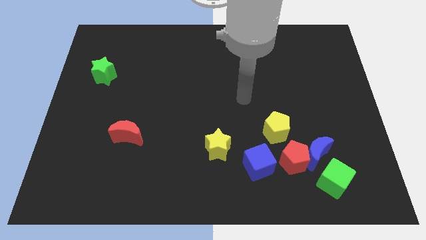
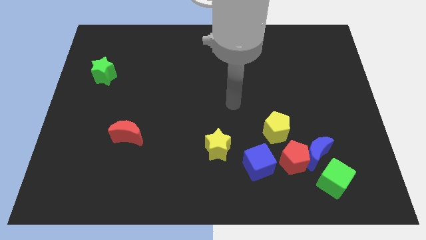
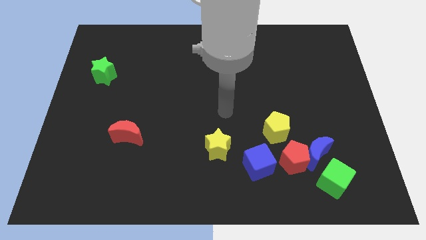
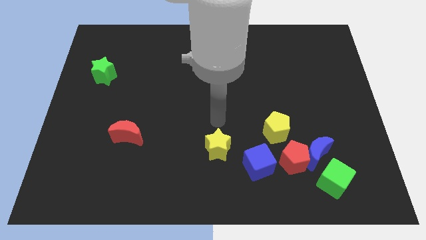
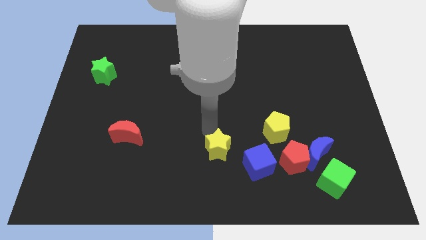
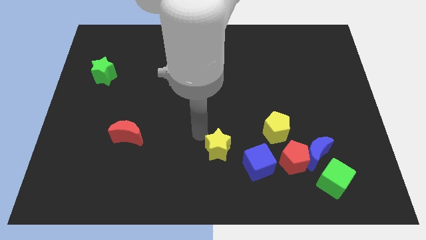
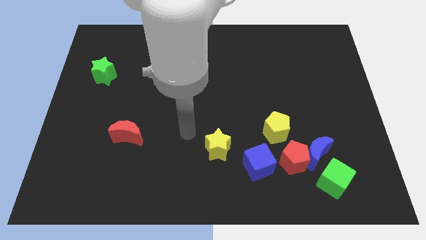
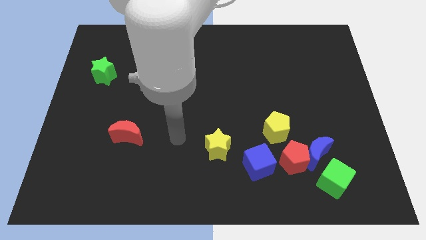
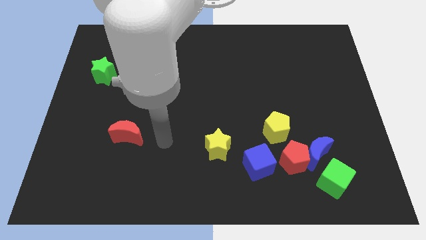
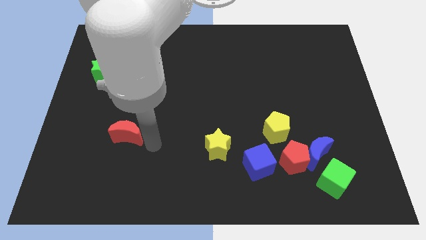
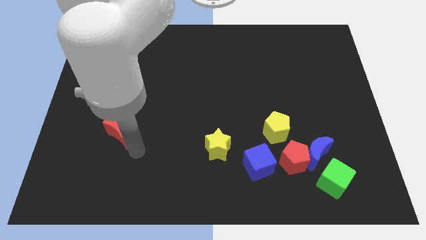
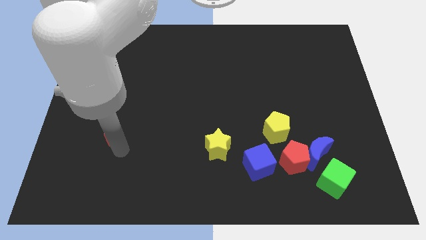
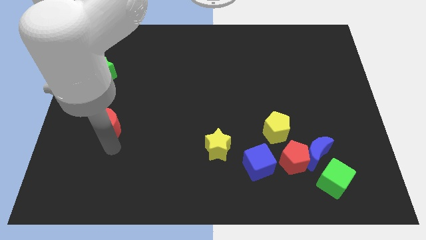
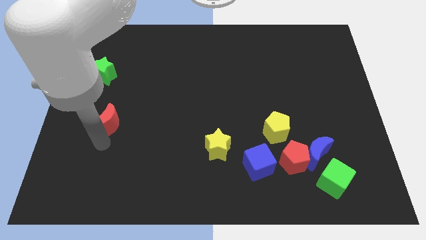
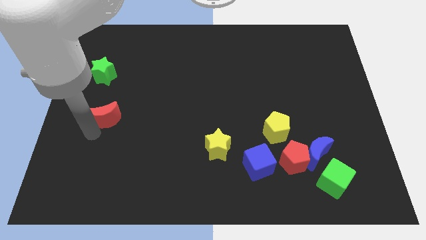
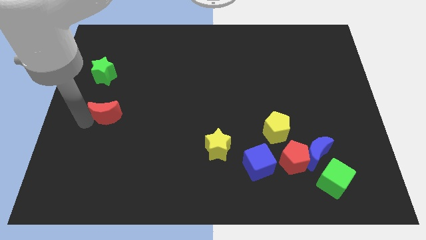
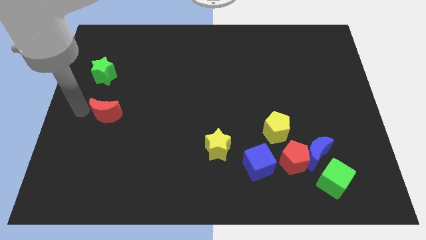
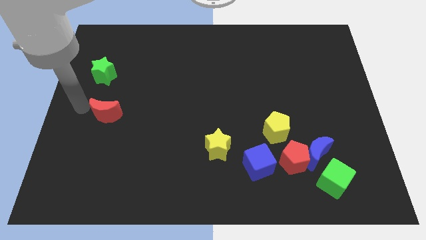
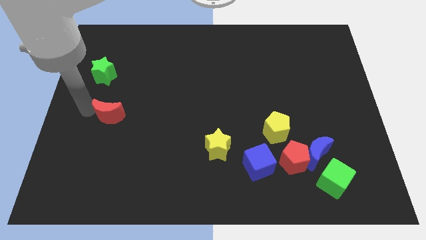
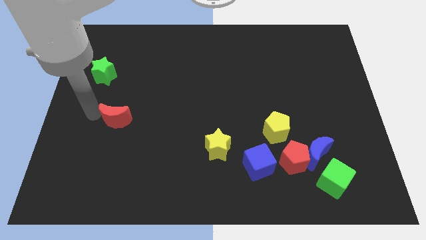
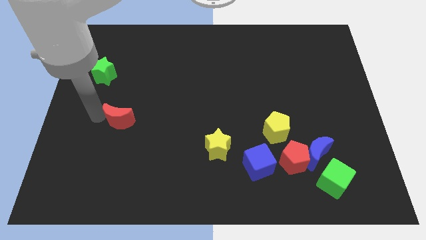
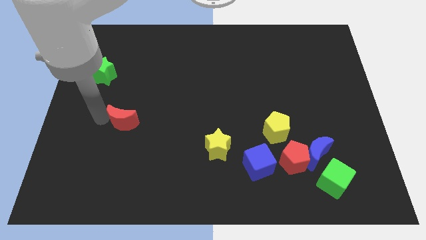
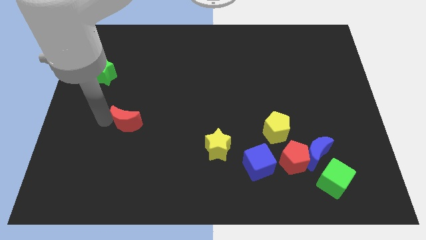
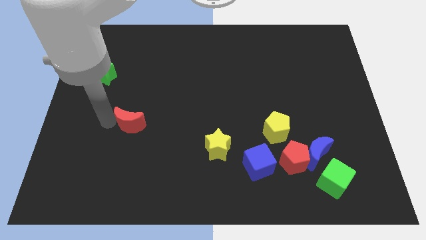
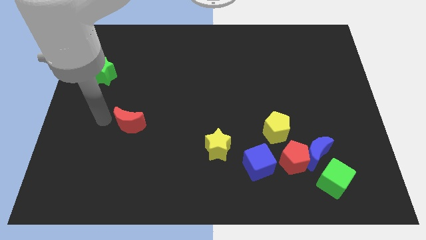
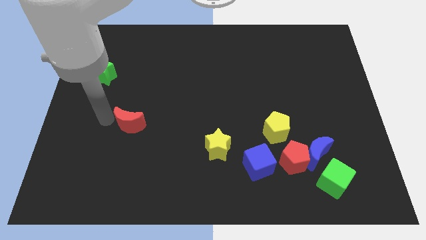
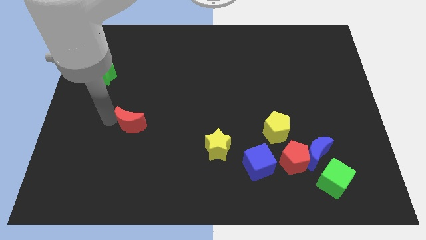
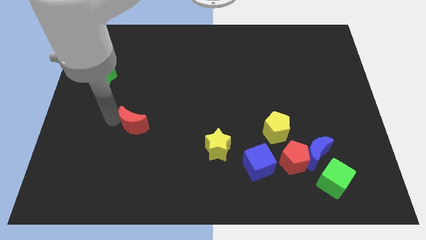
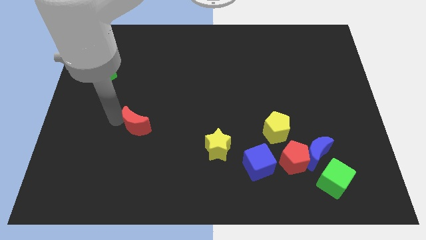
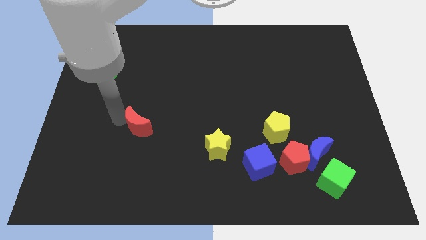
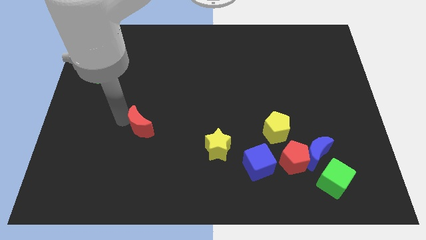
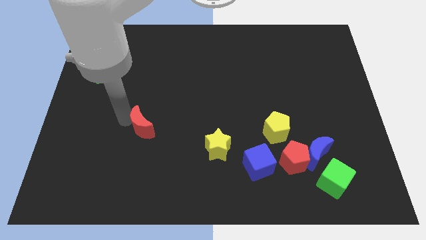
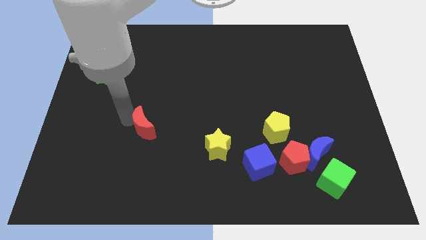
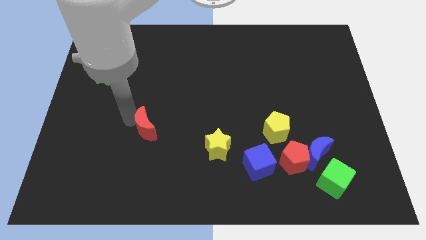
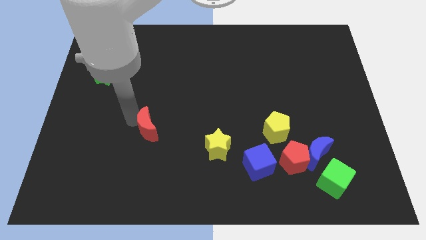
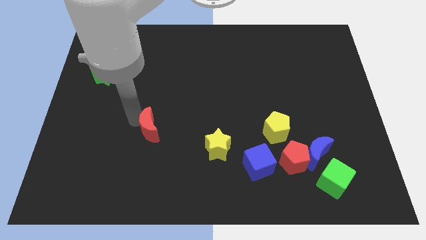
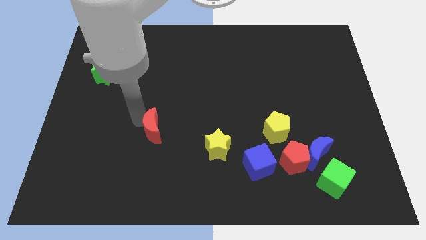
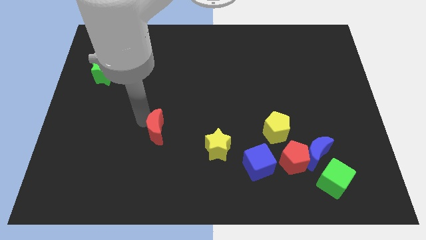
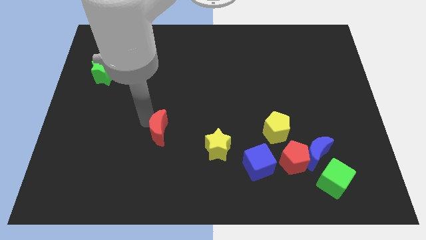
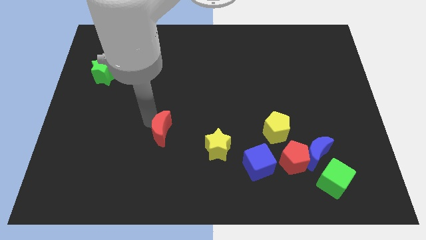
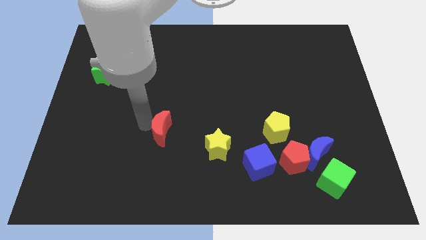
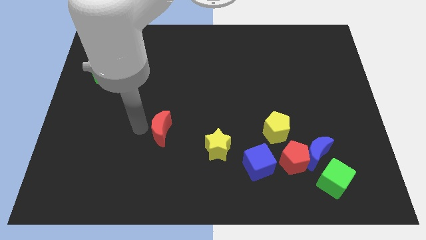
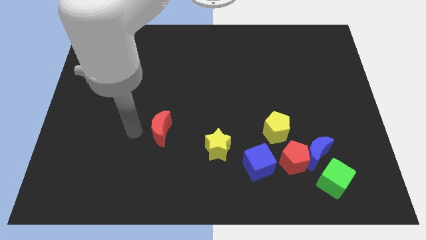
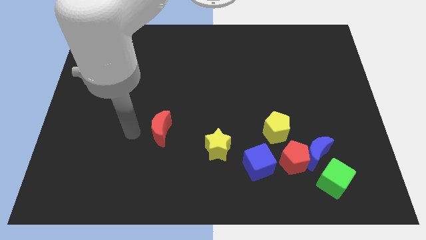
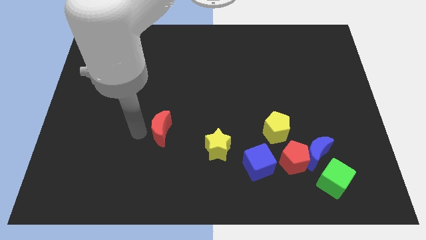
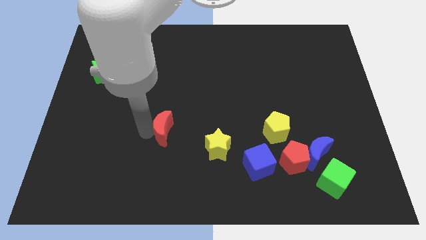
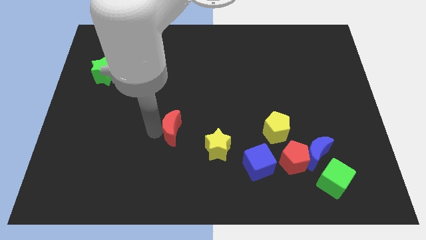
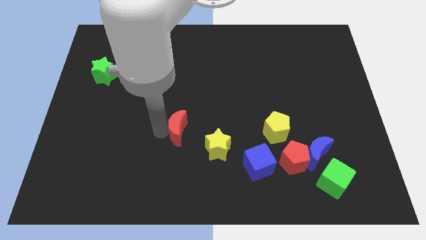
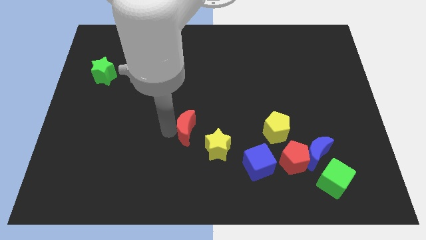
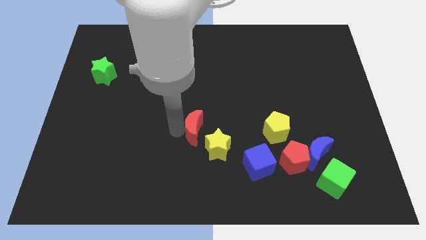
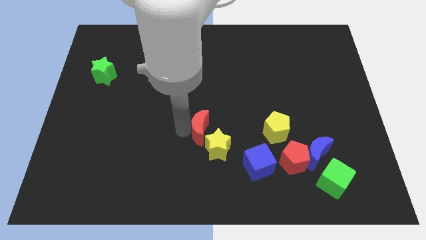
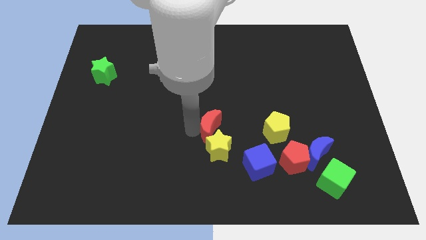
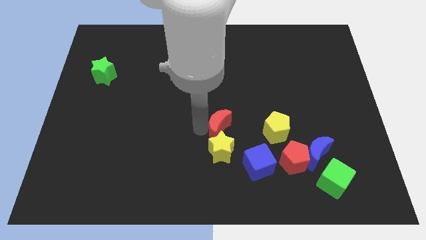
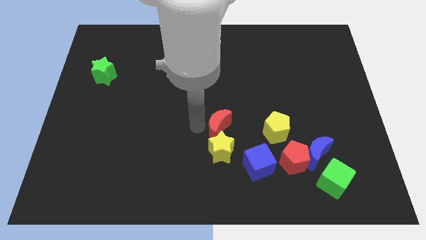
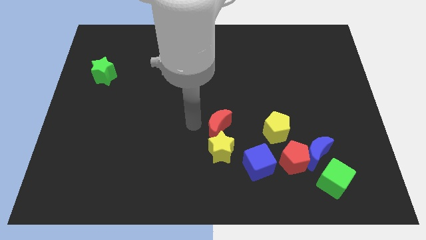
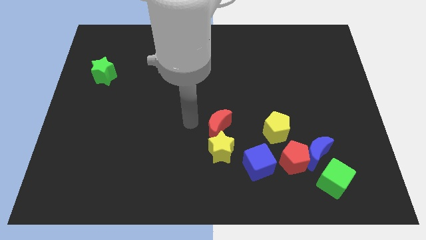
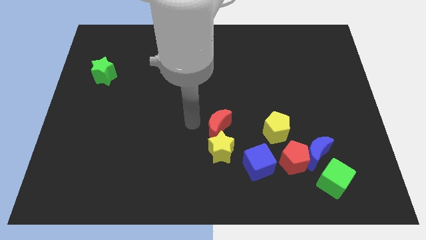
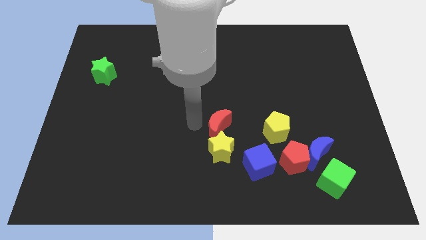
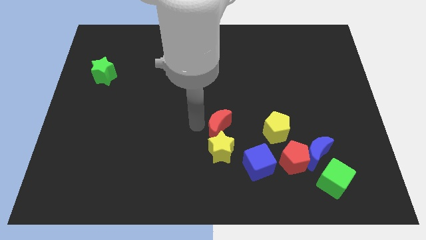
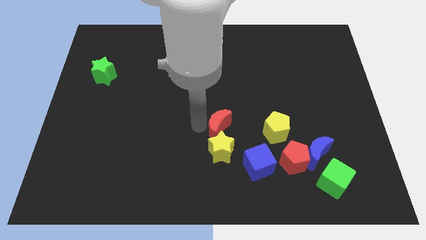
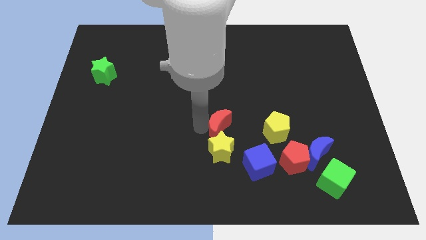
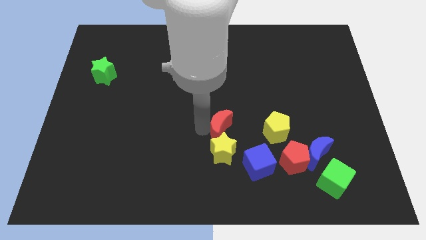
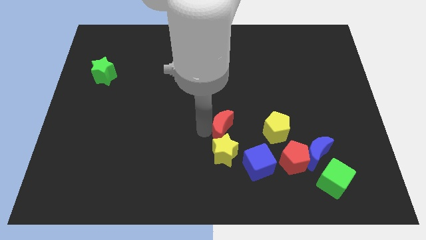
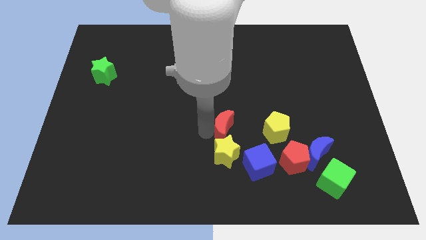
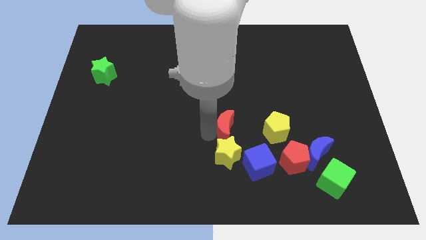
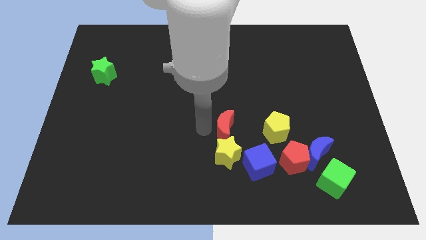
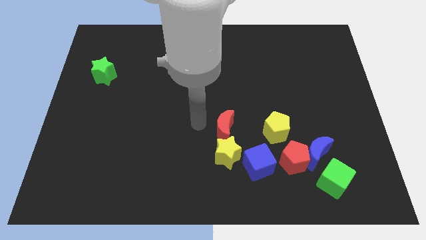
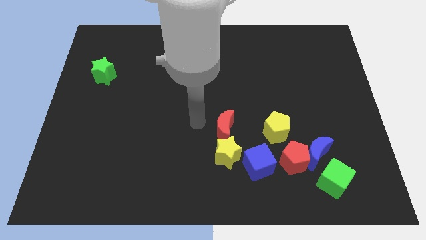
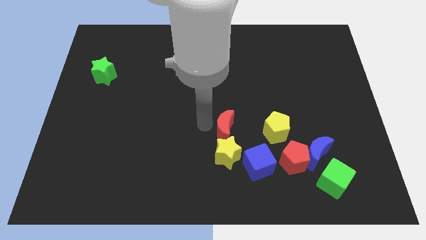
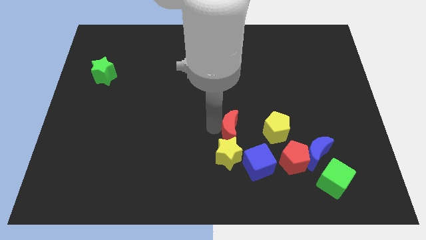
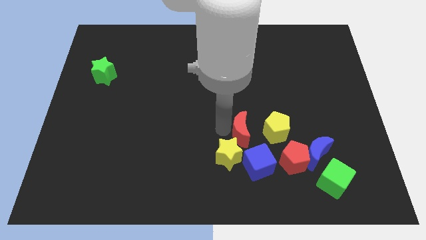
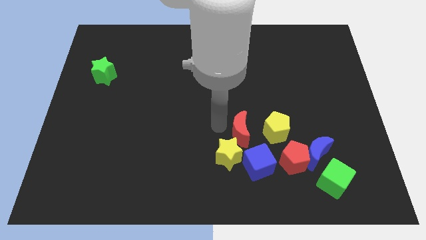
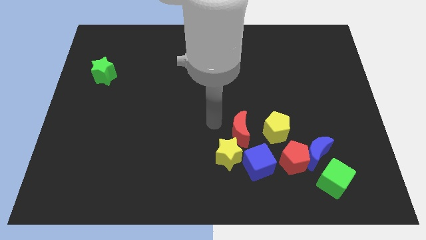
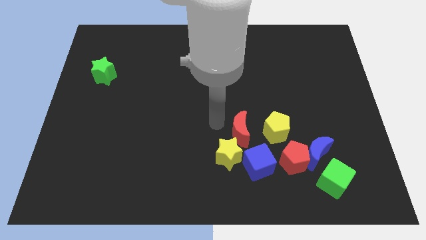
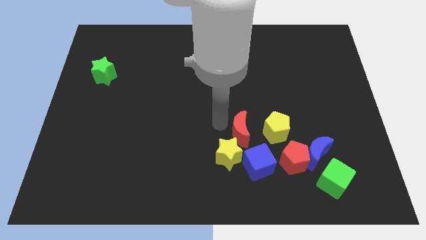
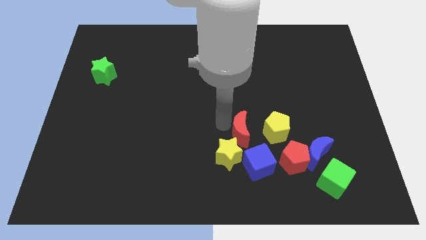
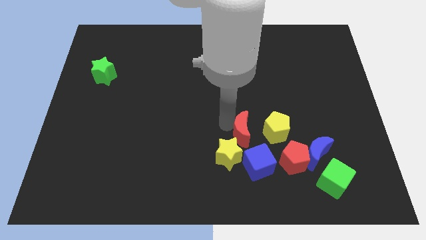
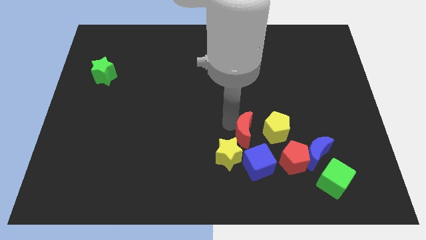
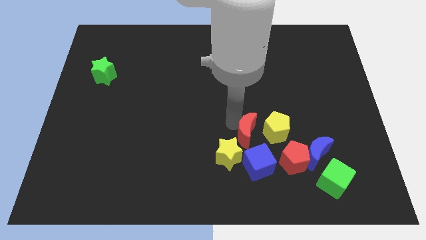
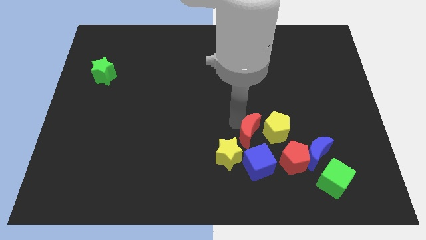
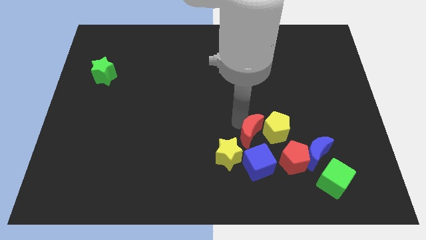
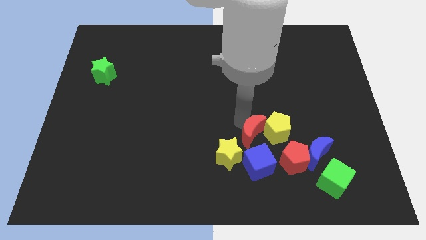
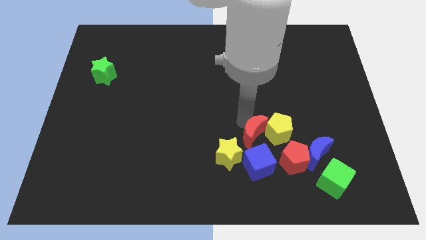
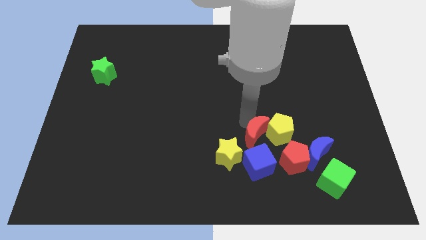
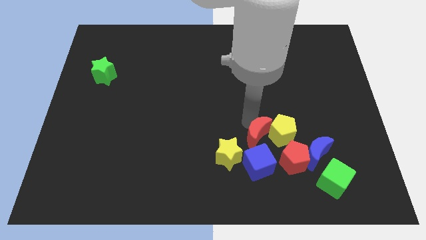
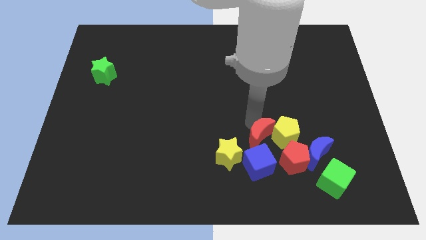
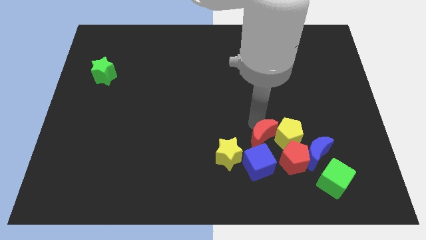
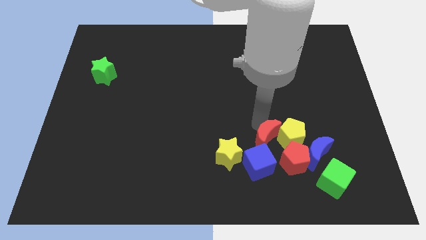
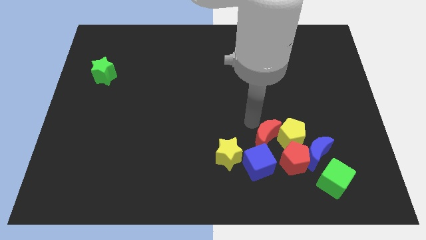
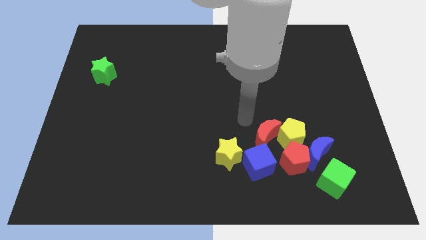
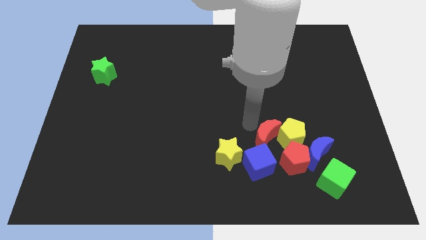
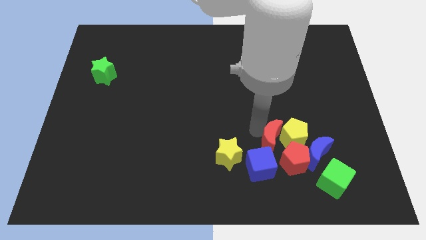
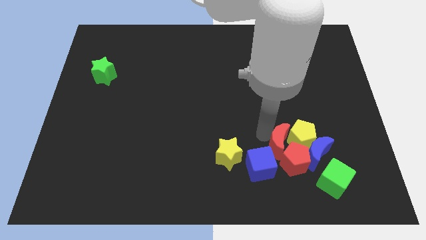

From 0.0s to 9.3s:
slide the red moon next to the red pentagon
